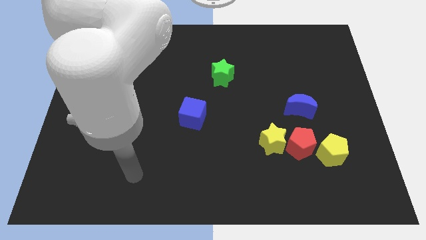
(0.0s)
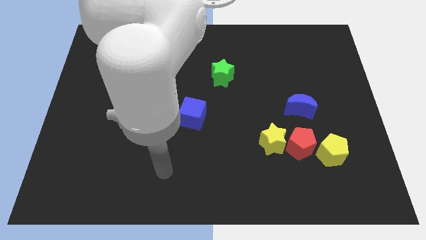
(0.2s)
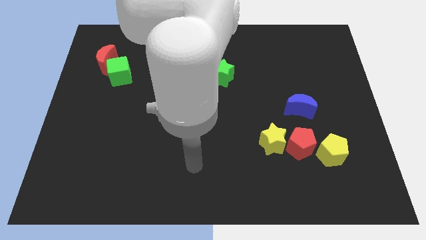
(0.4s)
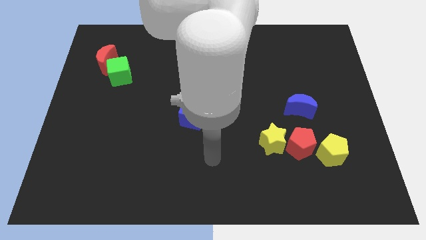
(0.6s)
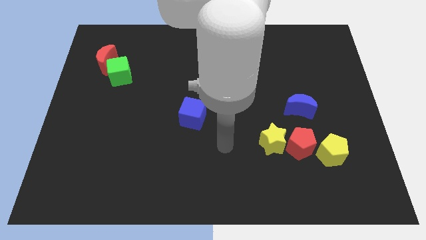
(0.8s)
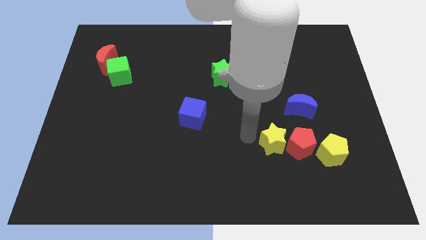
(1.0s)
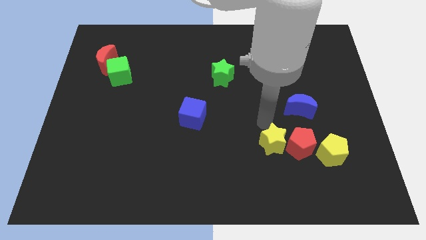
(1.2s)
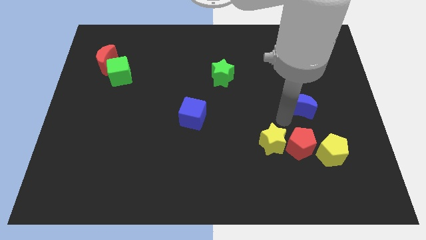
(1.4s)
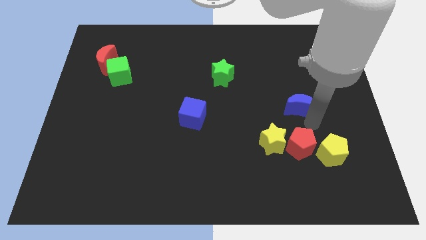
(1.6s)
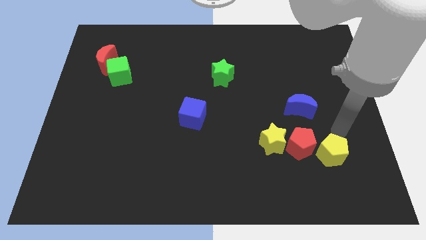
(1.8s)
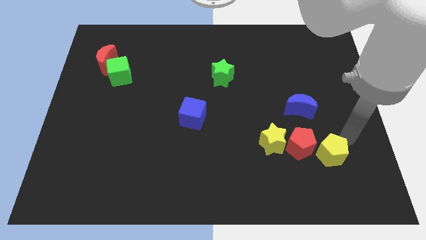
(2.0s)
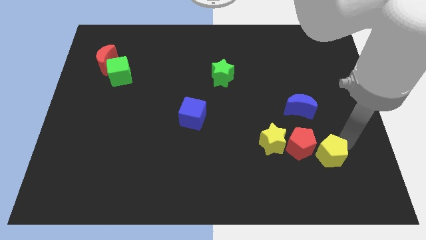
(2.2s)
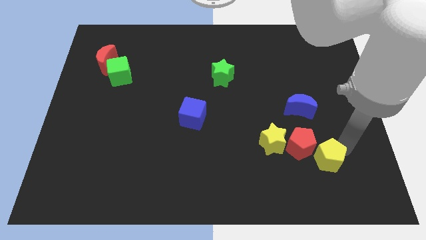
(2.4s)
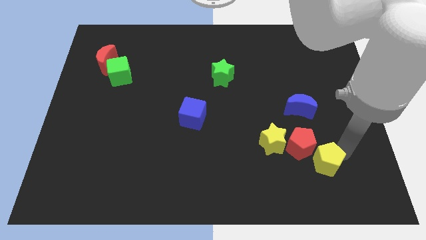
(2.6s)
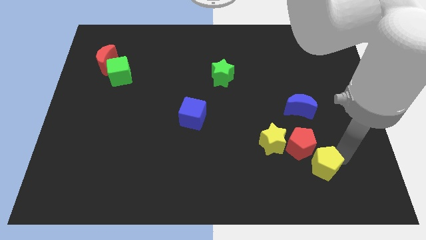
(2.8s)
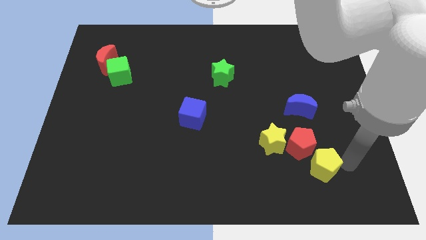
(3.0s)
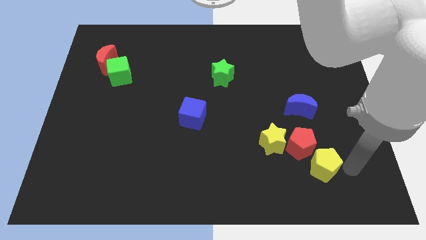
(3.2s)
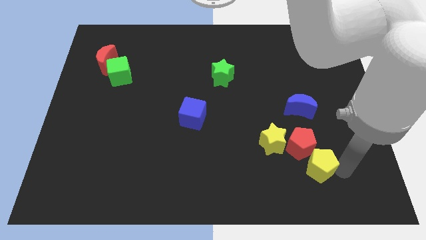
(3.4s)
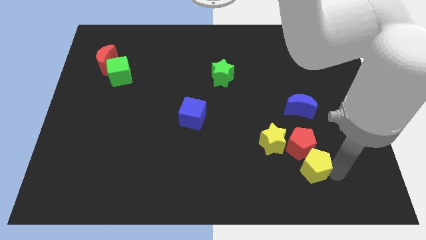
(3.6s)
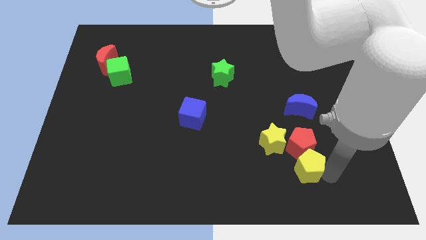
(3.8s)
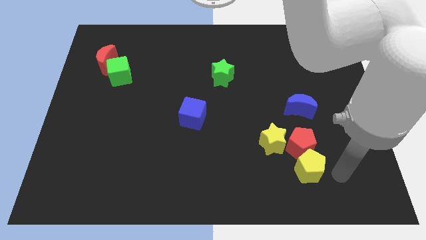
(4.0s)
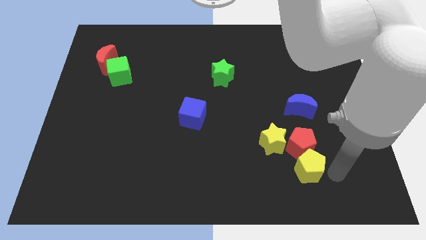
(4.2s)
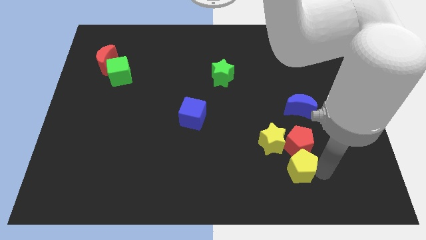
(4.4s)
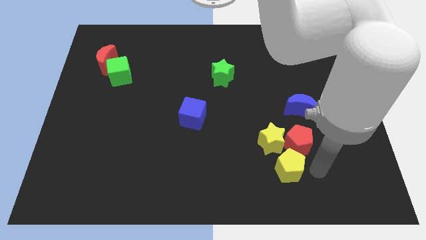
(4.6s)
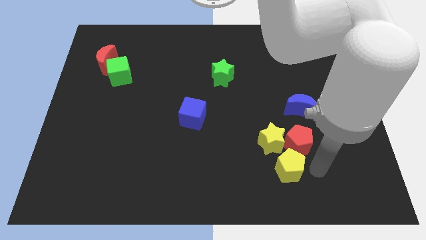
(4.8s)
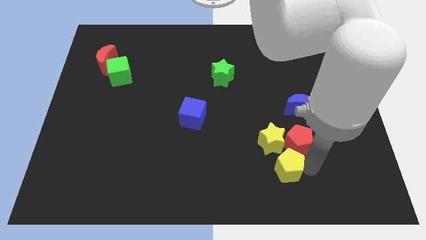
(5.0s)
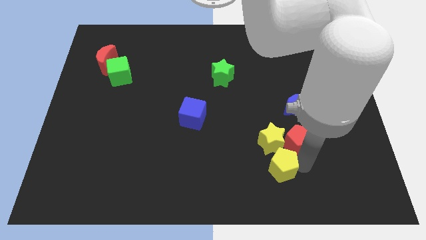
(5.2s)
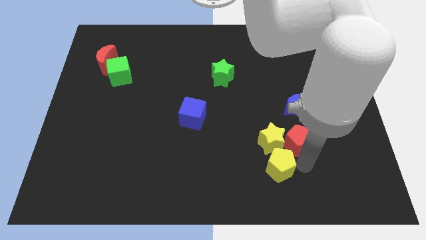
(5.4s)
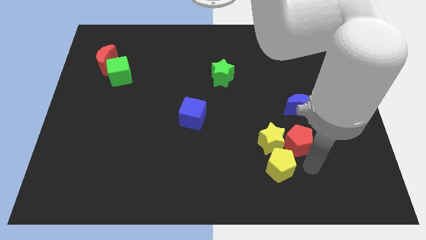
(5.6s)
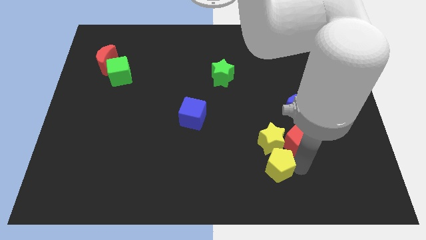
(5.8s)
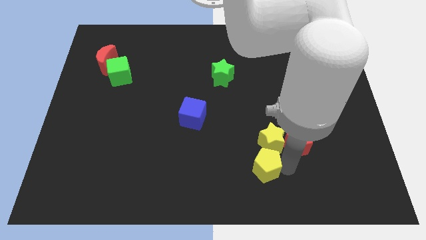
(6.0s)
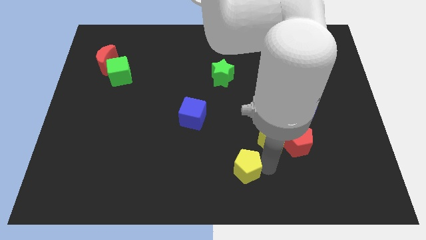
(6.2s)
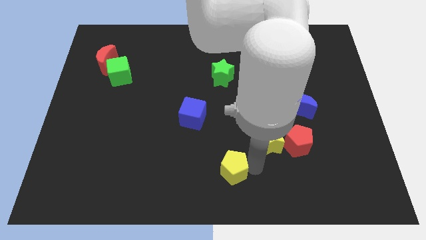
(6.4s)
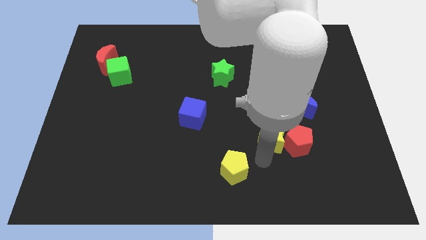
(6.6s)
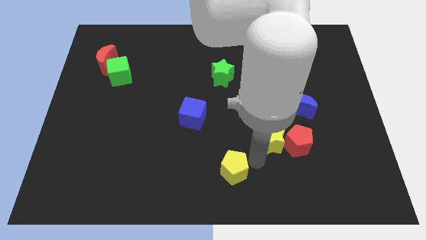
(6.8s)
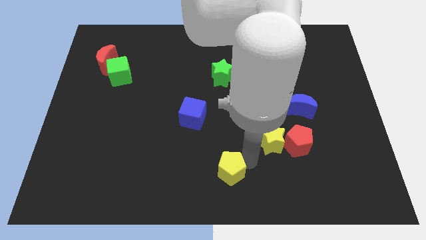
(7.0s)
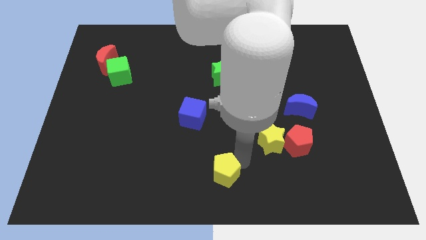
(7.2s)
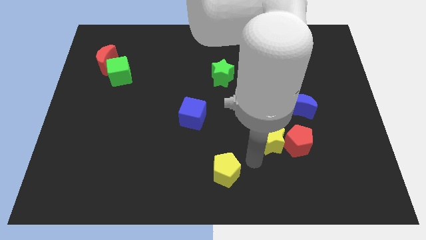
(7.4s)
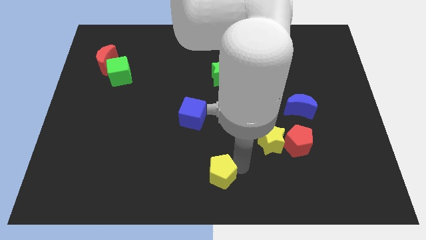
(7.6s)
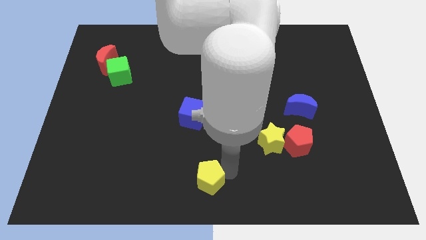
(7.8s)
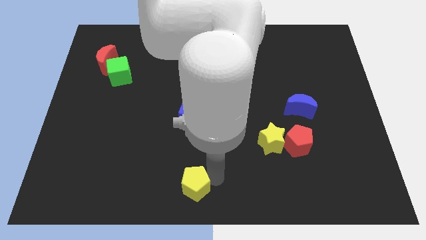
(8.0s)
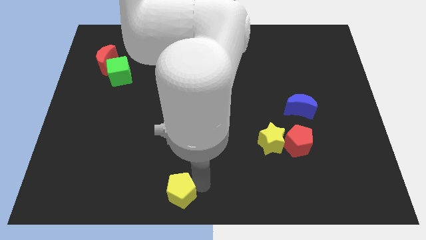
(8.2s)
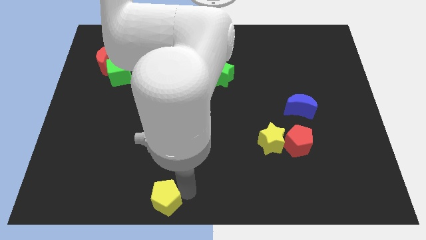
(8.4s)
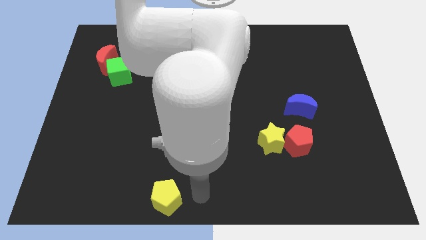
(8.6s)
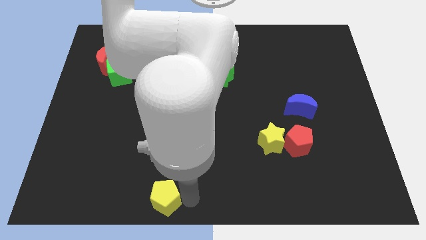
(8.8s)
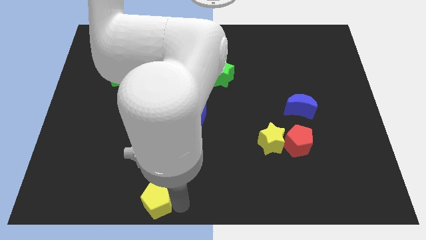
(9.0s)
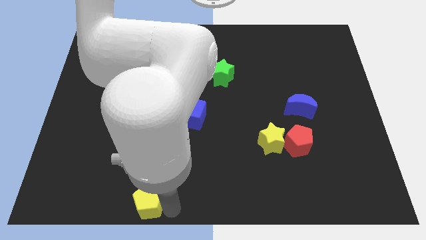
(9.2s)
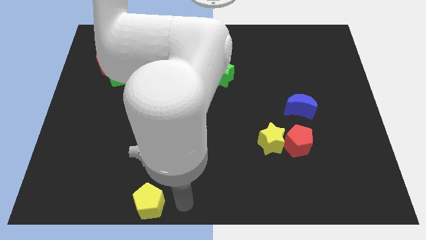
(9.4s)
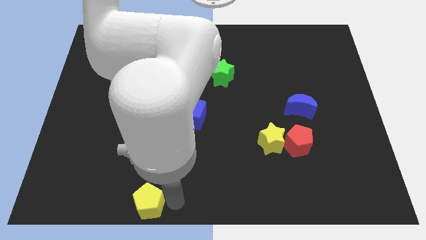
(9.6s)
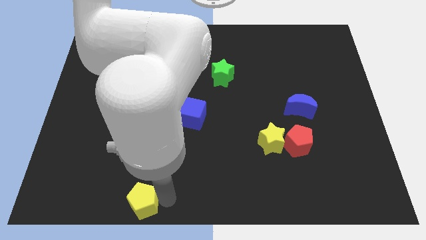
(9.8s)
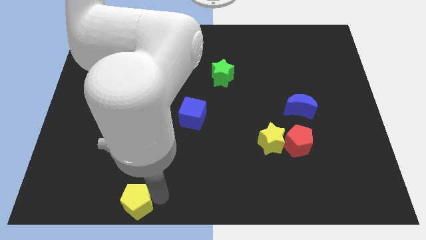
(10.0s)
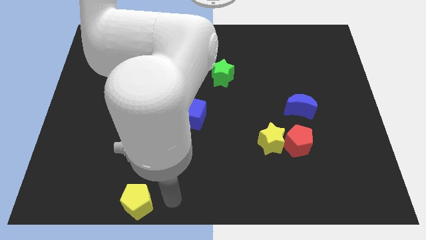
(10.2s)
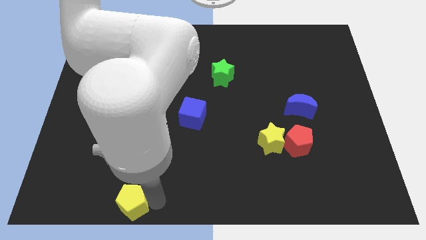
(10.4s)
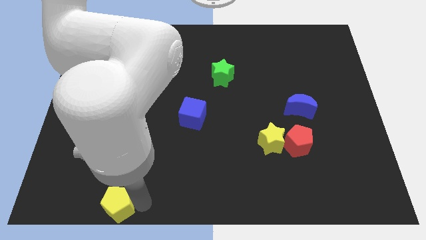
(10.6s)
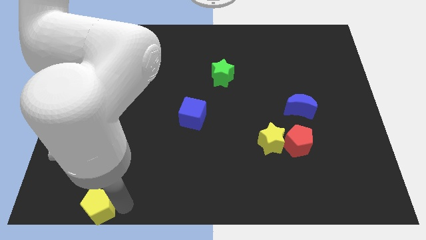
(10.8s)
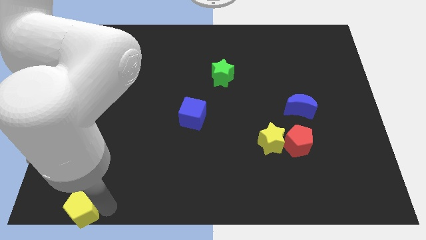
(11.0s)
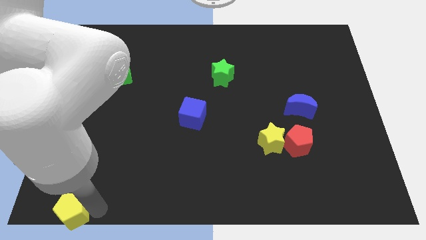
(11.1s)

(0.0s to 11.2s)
slide the yellow pentagon to the bottom left of the board

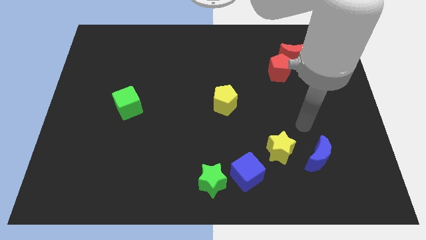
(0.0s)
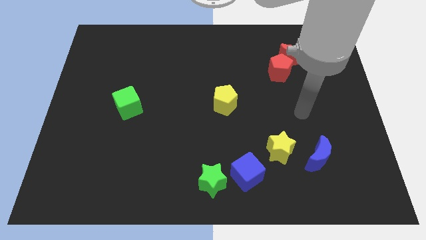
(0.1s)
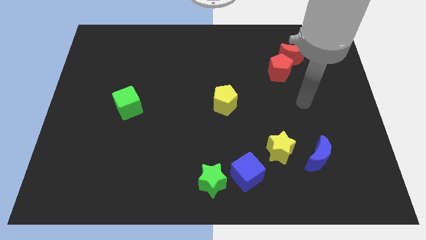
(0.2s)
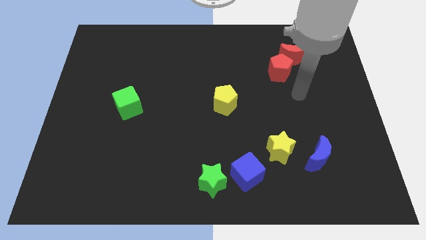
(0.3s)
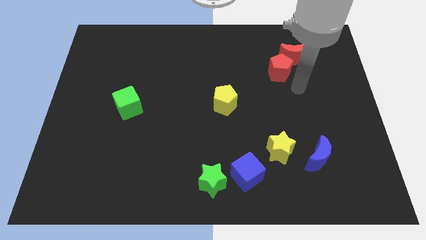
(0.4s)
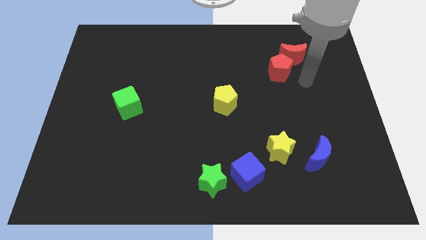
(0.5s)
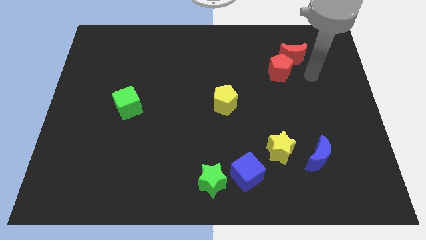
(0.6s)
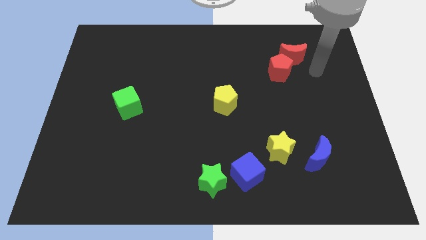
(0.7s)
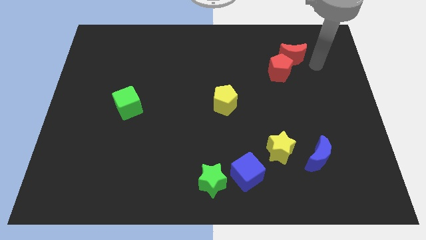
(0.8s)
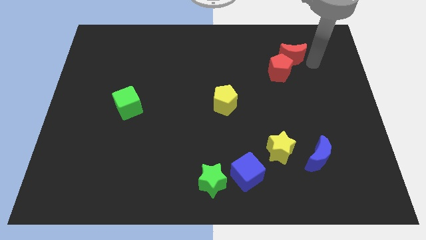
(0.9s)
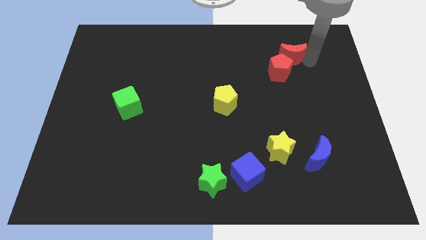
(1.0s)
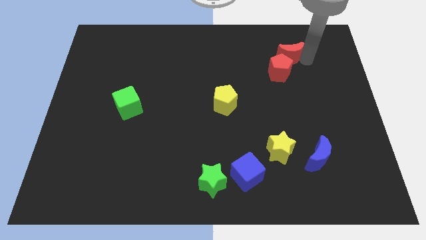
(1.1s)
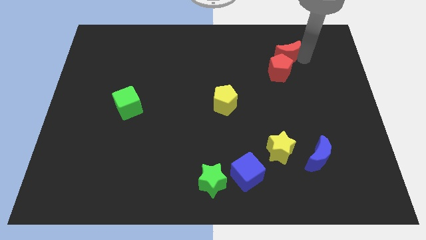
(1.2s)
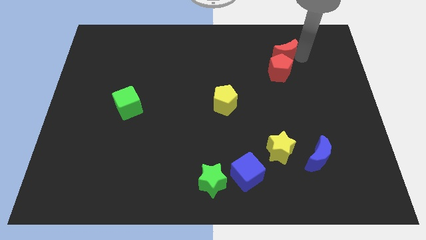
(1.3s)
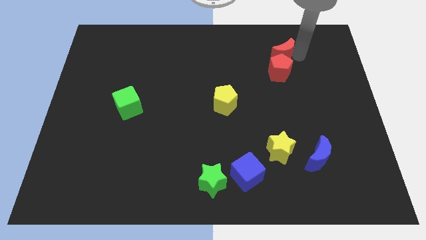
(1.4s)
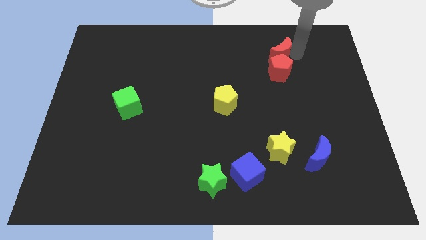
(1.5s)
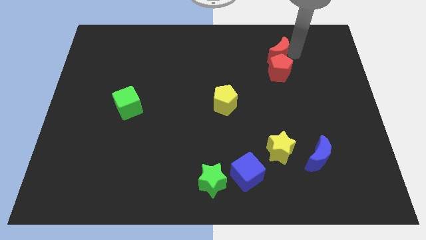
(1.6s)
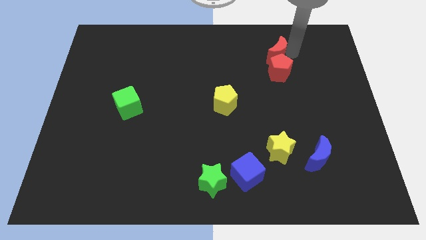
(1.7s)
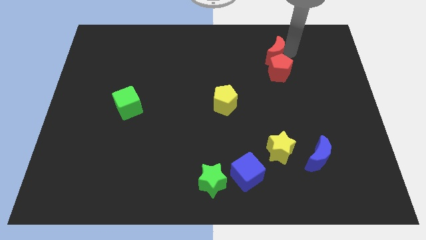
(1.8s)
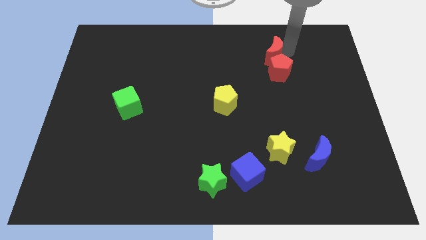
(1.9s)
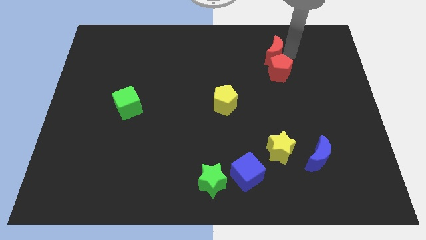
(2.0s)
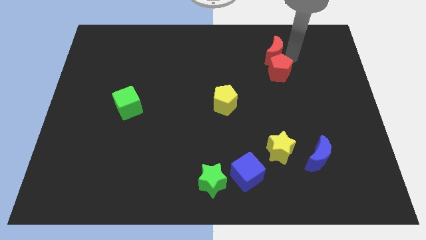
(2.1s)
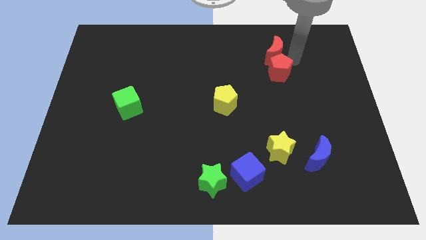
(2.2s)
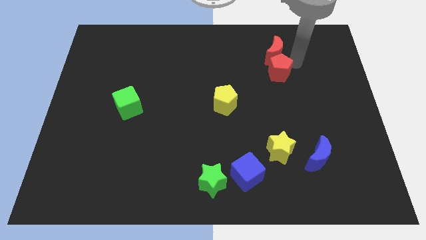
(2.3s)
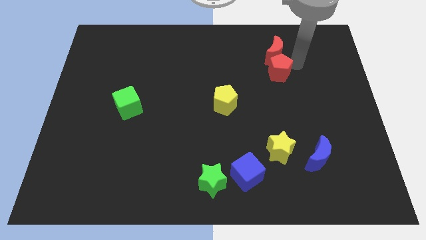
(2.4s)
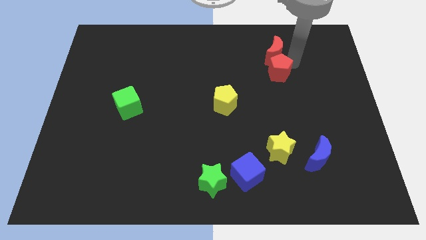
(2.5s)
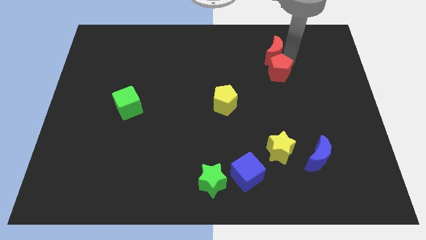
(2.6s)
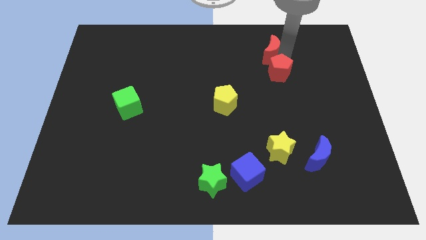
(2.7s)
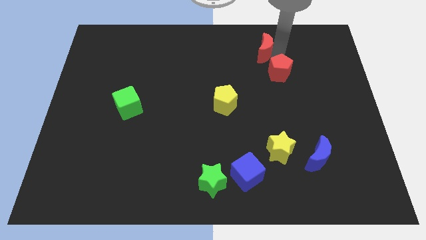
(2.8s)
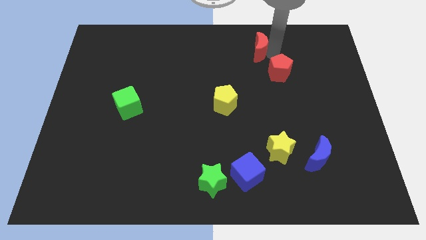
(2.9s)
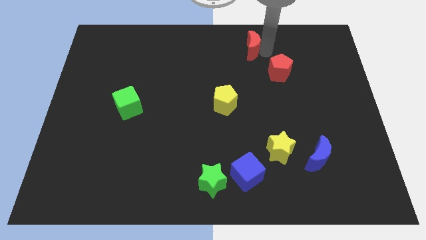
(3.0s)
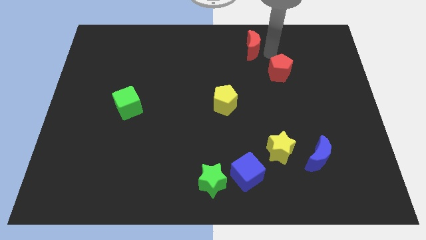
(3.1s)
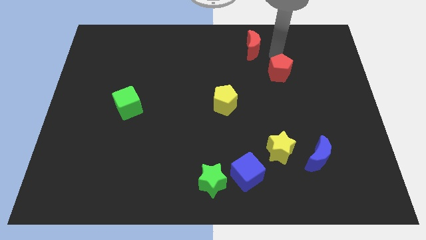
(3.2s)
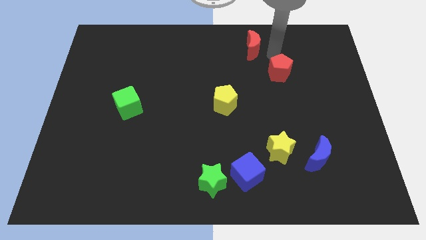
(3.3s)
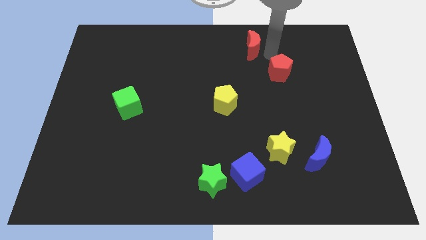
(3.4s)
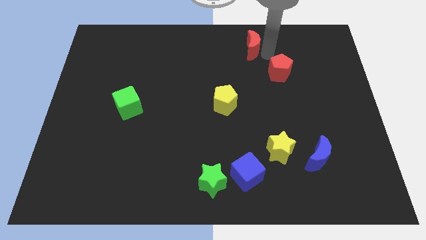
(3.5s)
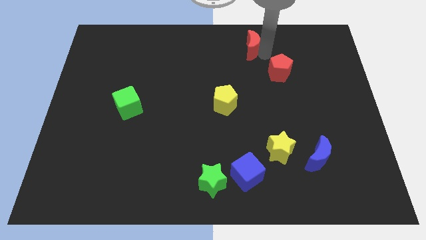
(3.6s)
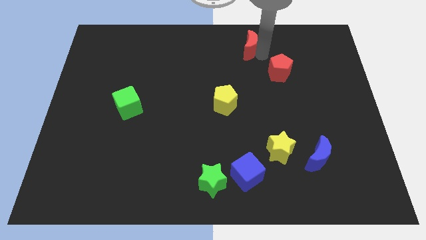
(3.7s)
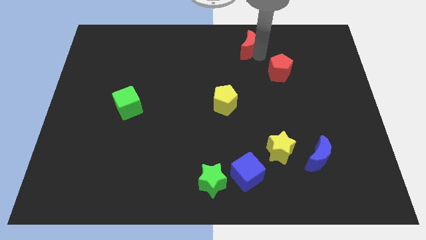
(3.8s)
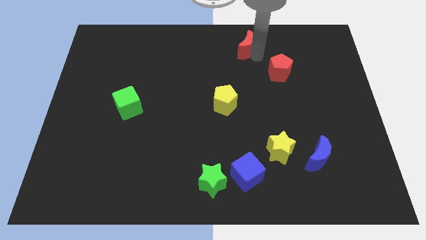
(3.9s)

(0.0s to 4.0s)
push the red moon to the top side
